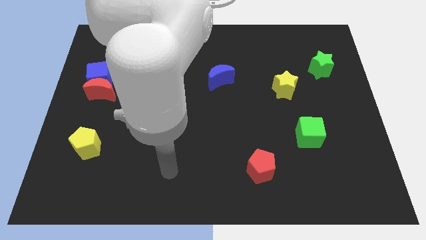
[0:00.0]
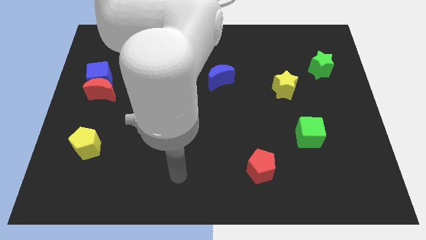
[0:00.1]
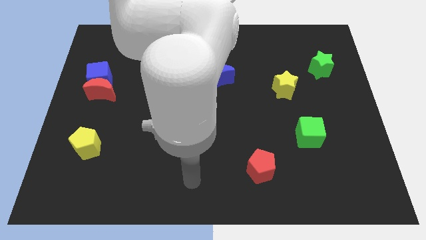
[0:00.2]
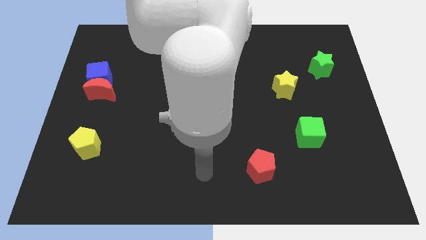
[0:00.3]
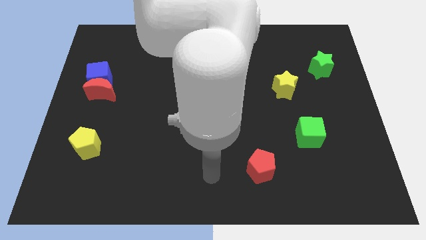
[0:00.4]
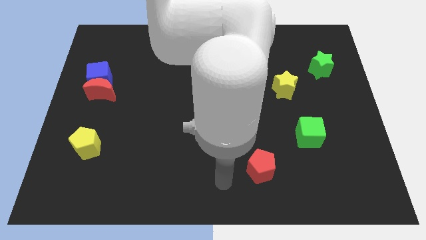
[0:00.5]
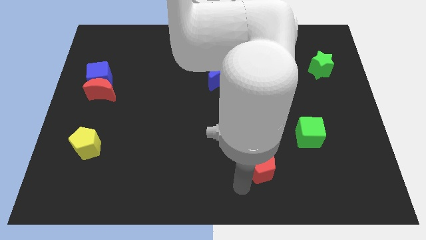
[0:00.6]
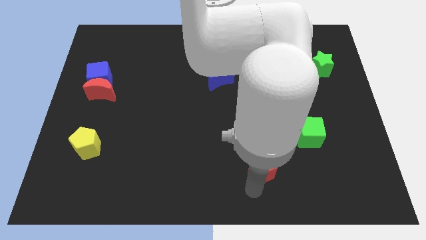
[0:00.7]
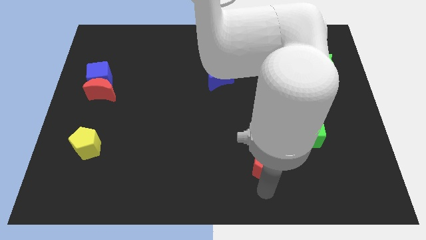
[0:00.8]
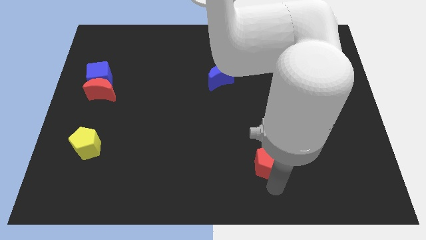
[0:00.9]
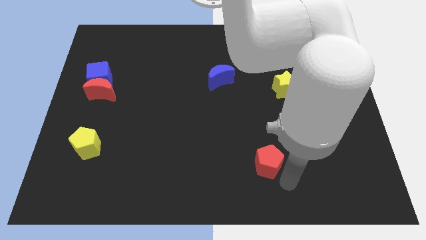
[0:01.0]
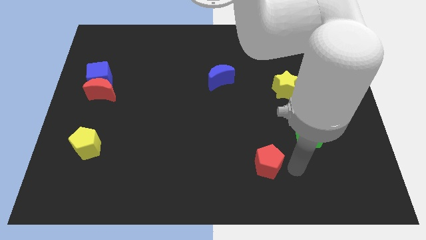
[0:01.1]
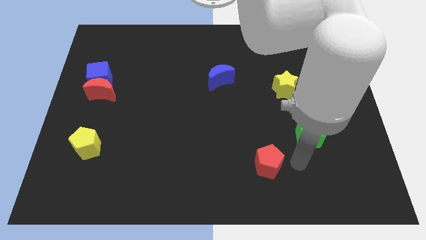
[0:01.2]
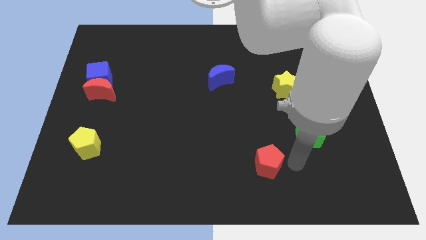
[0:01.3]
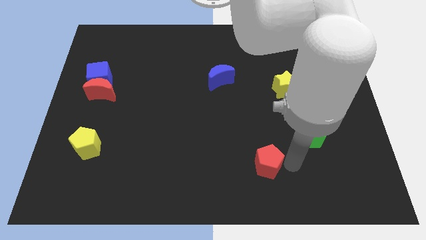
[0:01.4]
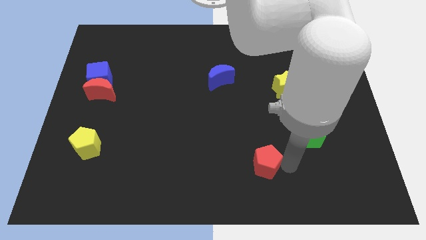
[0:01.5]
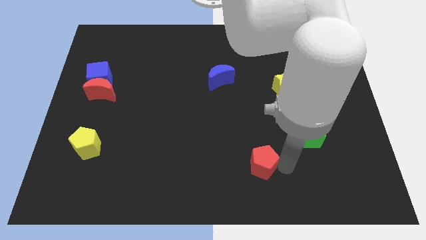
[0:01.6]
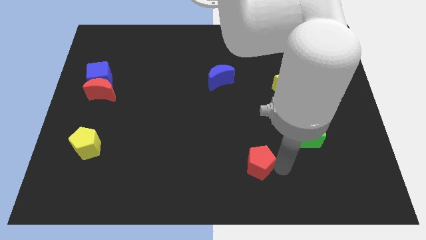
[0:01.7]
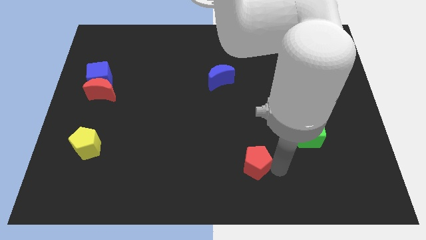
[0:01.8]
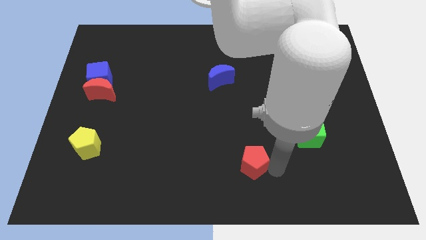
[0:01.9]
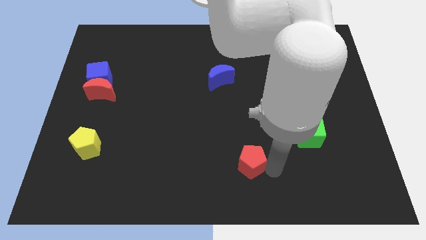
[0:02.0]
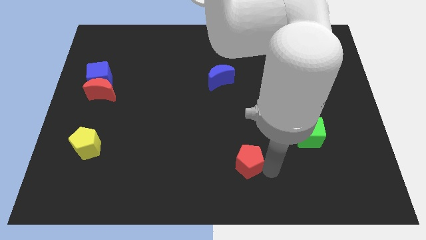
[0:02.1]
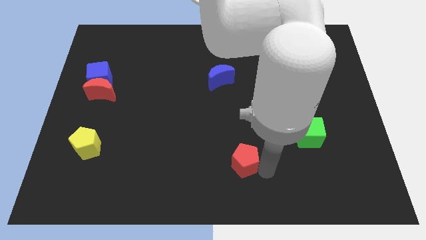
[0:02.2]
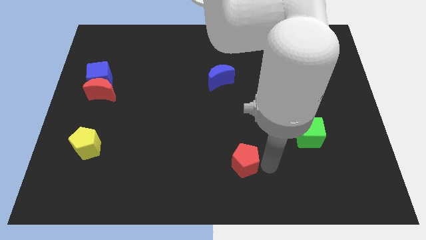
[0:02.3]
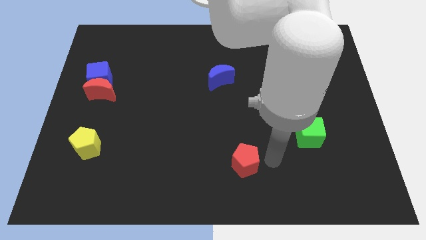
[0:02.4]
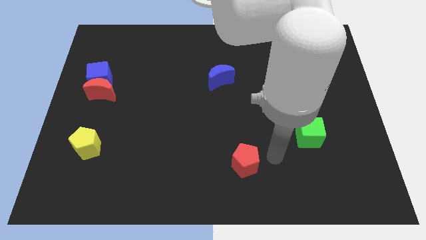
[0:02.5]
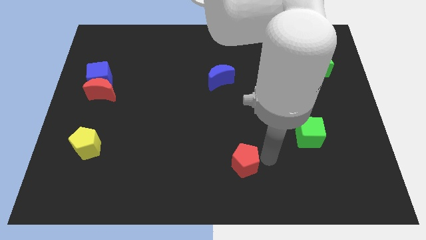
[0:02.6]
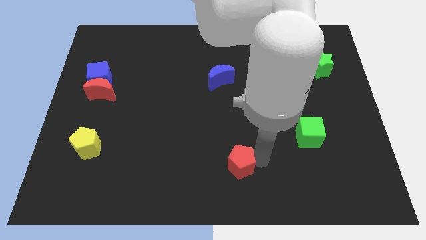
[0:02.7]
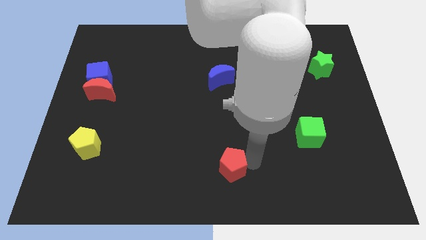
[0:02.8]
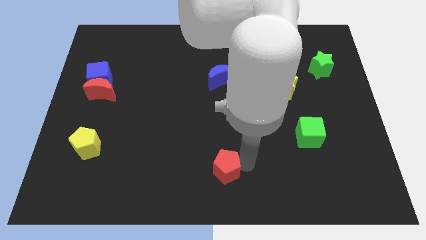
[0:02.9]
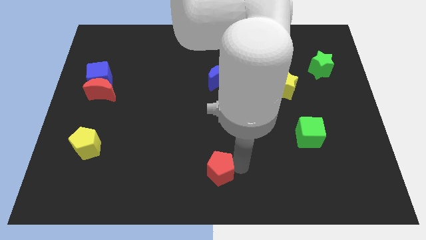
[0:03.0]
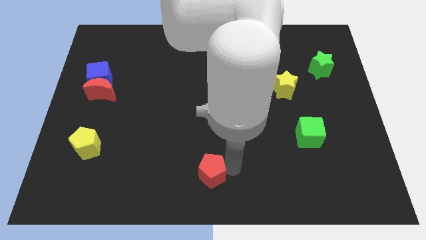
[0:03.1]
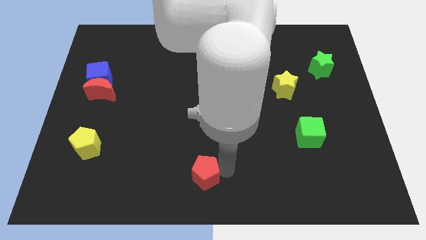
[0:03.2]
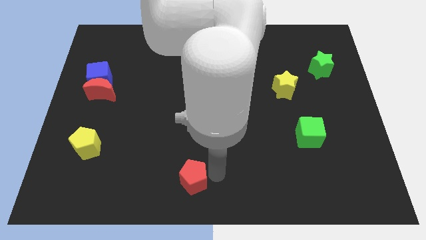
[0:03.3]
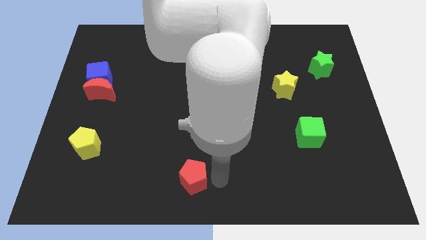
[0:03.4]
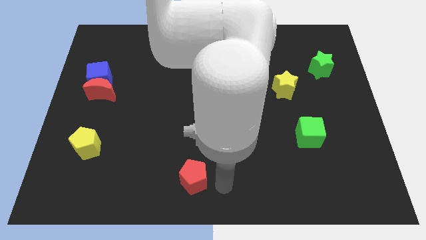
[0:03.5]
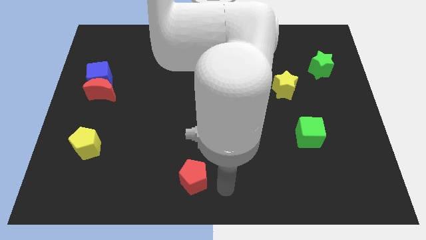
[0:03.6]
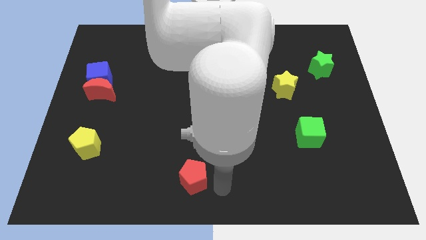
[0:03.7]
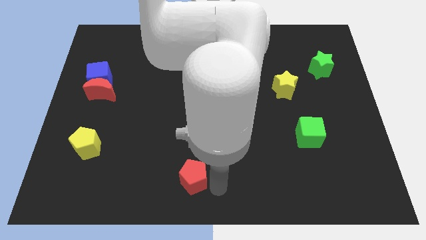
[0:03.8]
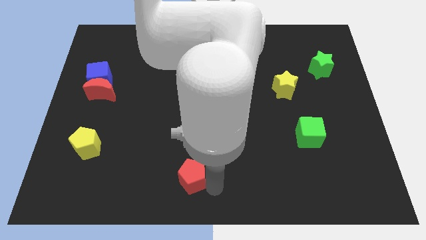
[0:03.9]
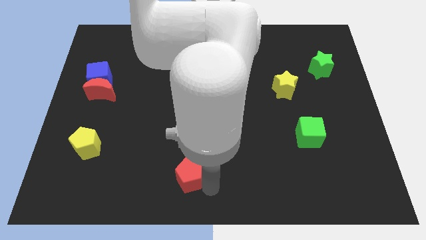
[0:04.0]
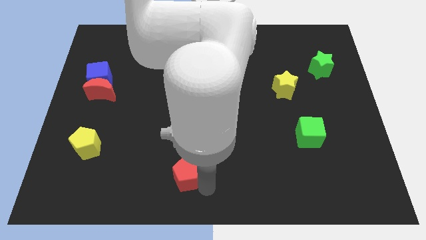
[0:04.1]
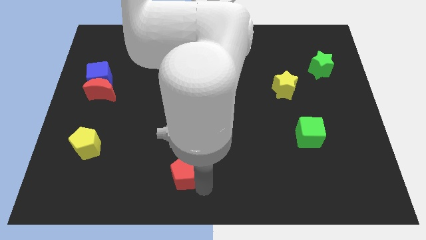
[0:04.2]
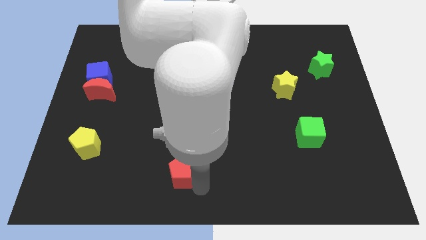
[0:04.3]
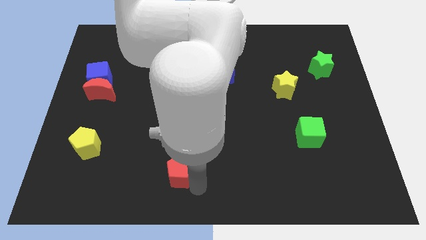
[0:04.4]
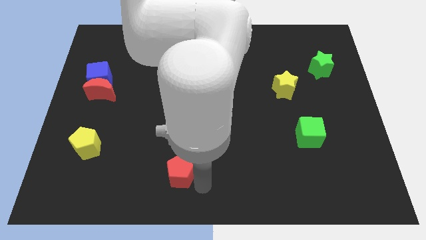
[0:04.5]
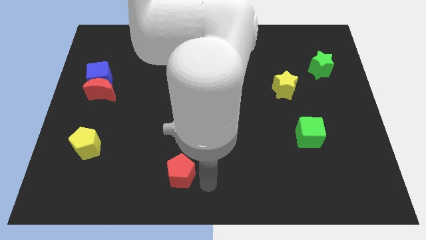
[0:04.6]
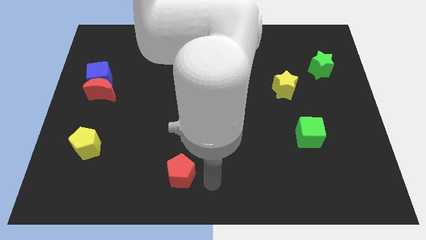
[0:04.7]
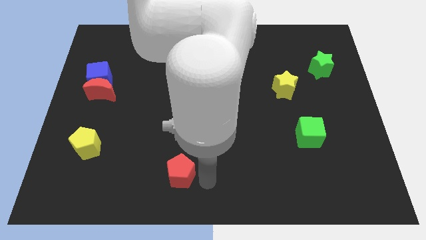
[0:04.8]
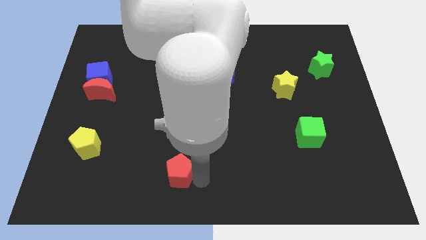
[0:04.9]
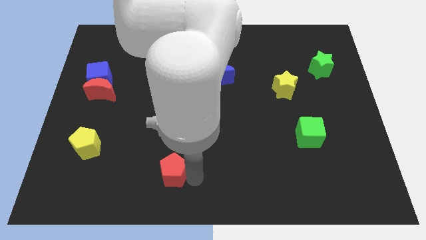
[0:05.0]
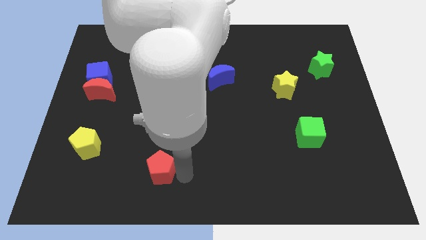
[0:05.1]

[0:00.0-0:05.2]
slide the red pentagon to the left

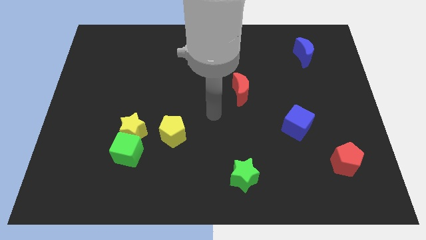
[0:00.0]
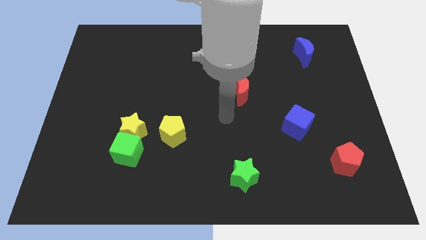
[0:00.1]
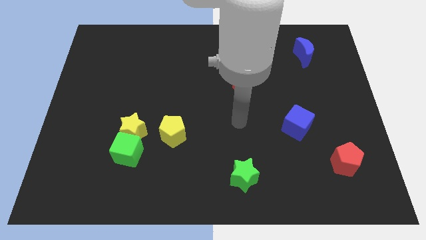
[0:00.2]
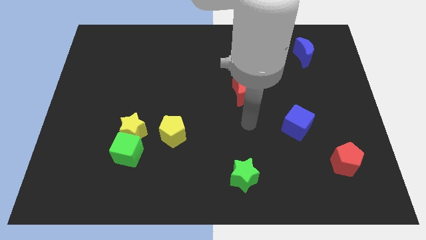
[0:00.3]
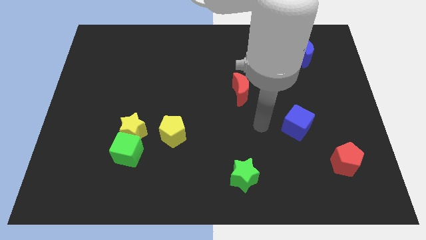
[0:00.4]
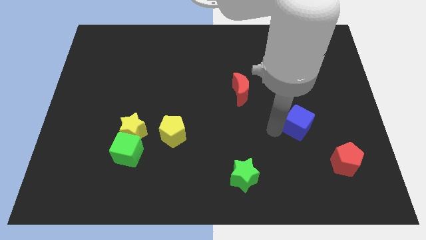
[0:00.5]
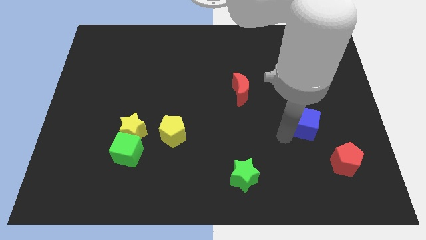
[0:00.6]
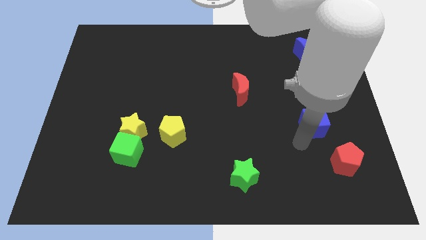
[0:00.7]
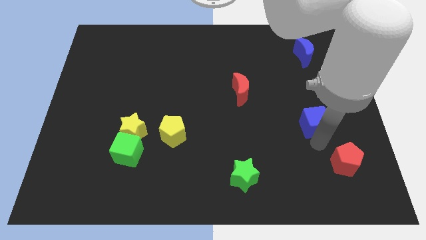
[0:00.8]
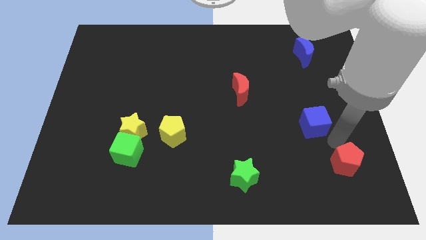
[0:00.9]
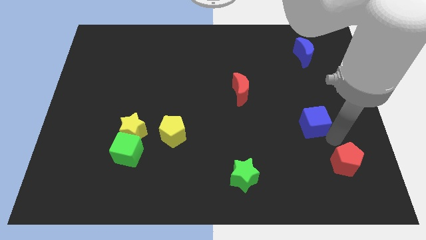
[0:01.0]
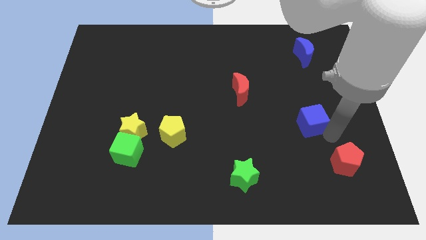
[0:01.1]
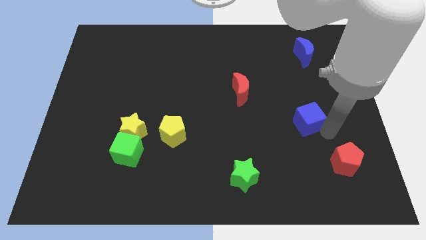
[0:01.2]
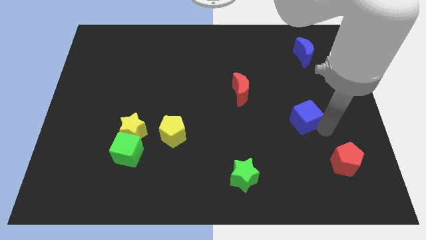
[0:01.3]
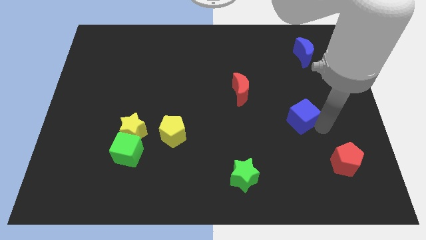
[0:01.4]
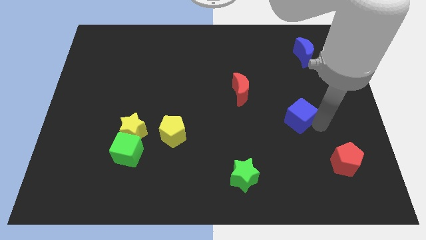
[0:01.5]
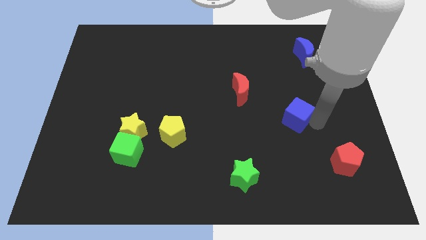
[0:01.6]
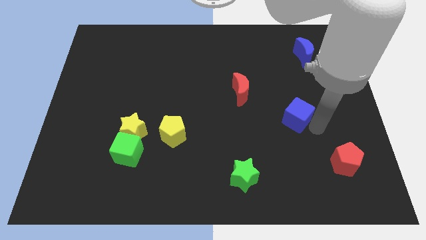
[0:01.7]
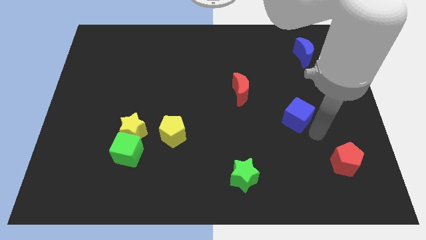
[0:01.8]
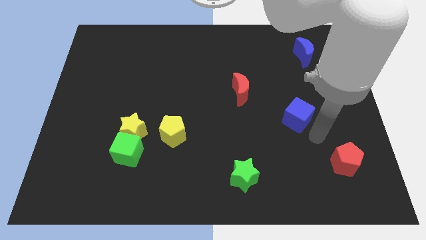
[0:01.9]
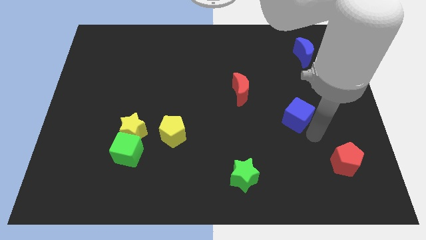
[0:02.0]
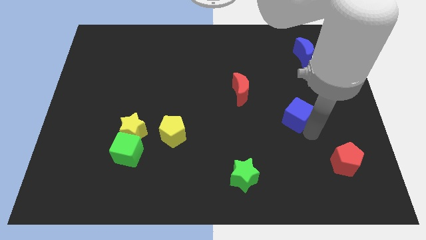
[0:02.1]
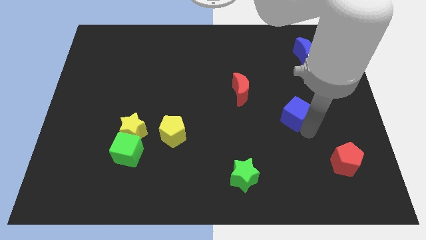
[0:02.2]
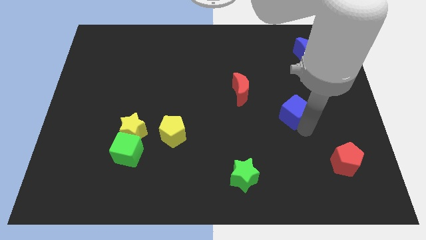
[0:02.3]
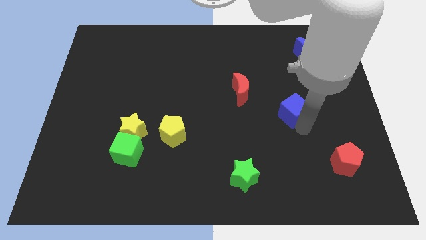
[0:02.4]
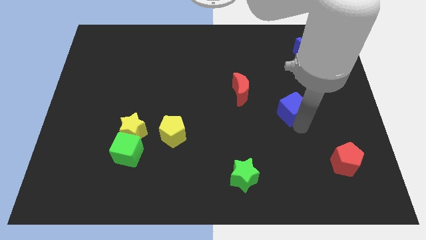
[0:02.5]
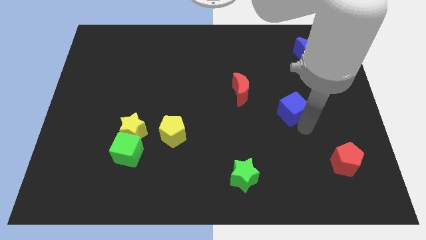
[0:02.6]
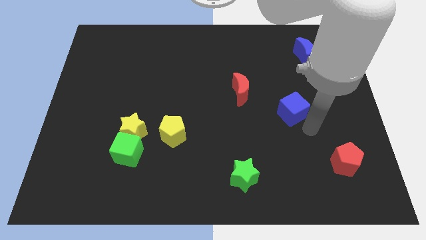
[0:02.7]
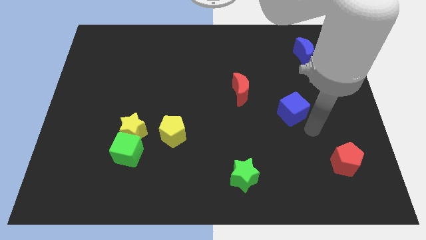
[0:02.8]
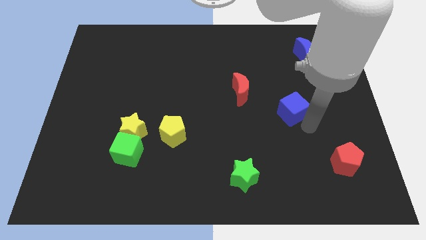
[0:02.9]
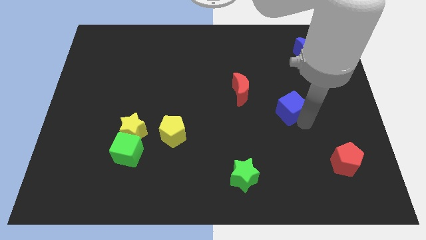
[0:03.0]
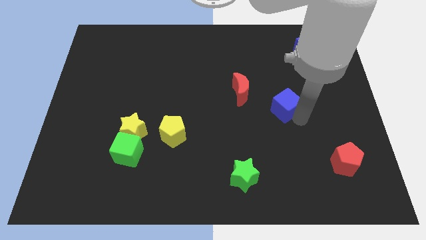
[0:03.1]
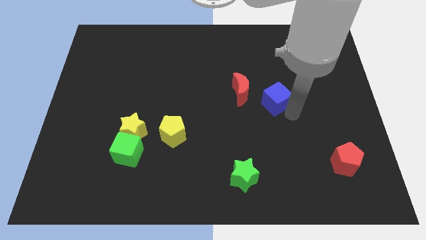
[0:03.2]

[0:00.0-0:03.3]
push the blue cube up and then to the left somewhat

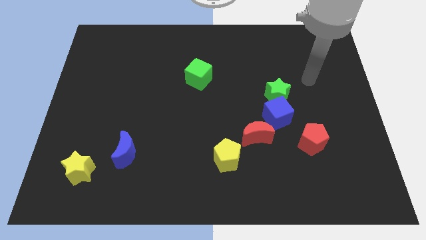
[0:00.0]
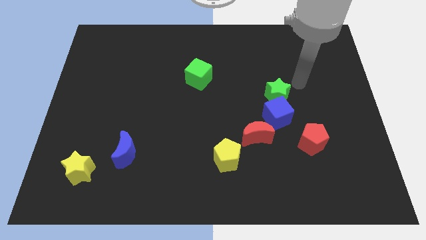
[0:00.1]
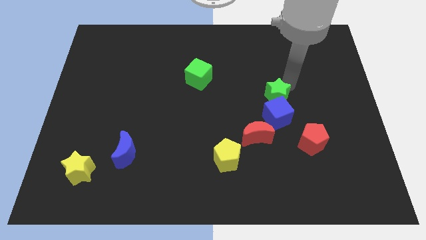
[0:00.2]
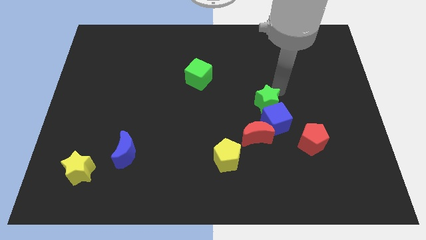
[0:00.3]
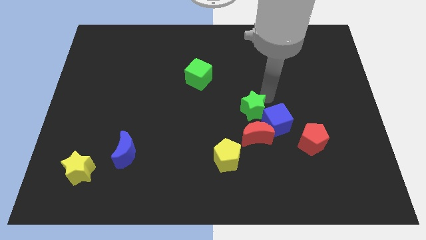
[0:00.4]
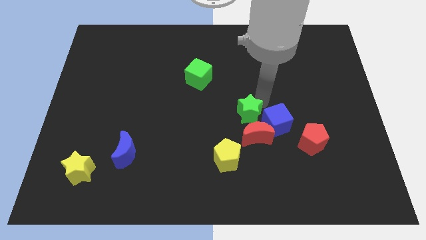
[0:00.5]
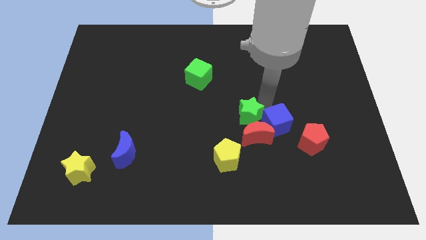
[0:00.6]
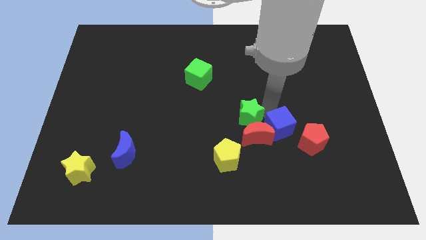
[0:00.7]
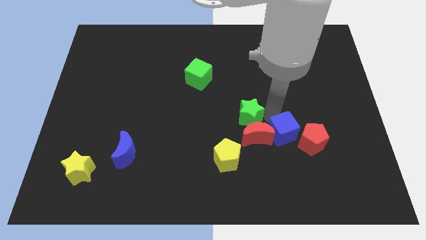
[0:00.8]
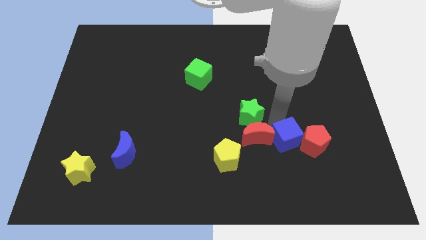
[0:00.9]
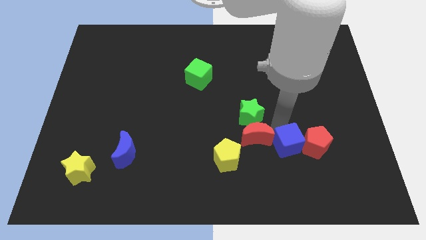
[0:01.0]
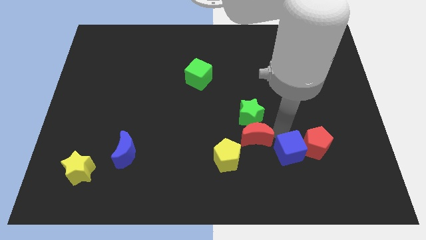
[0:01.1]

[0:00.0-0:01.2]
move the blue cube down and to the right diagonally somewhat
